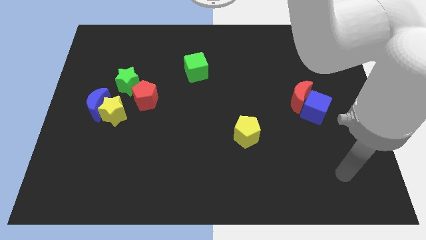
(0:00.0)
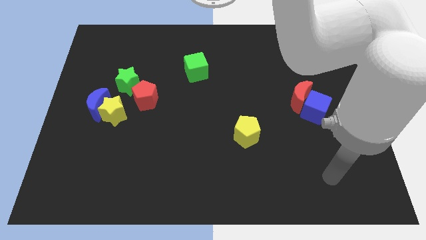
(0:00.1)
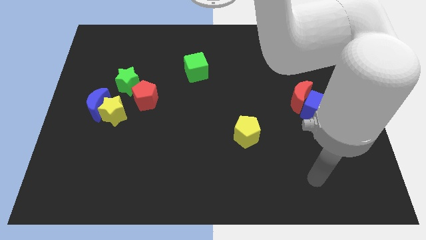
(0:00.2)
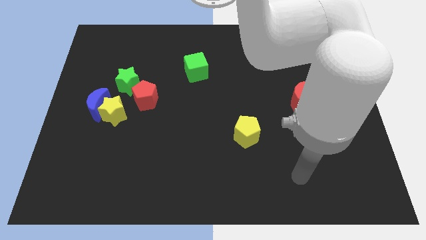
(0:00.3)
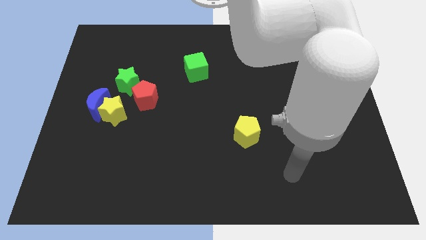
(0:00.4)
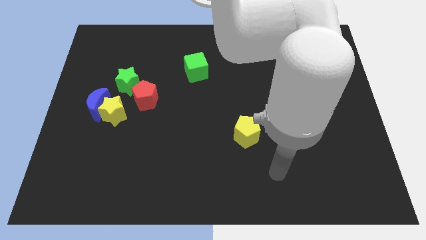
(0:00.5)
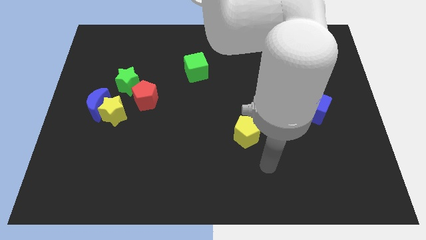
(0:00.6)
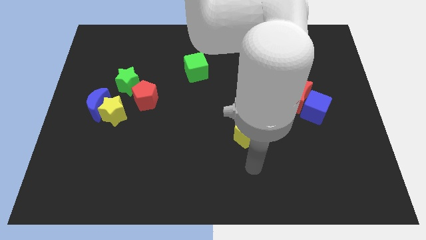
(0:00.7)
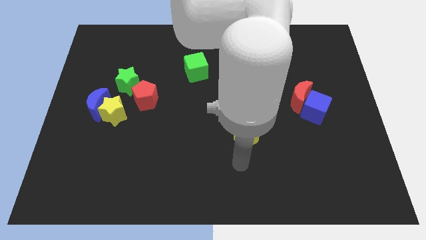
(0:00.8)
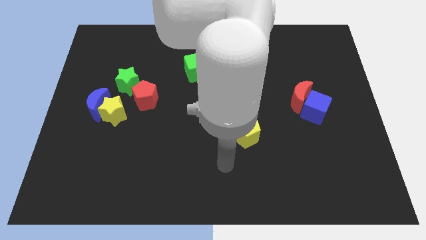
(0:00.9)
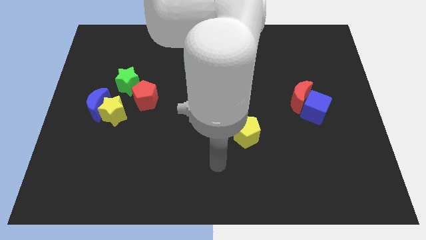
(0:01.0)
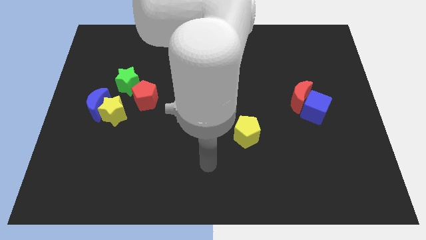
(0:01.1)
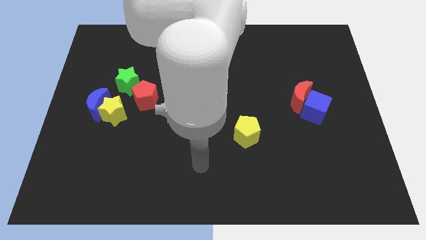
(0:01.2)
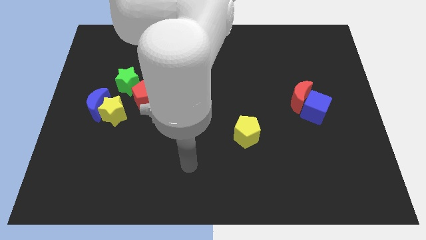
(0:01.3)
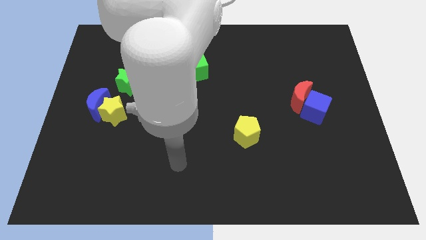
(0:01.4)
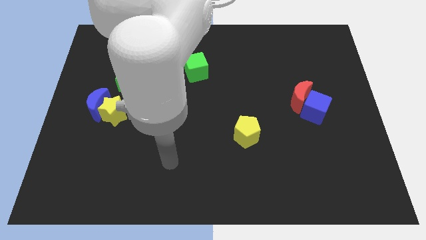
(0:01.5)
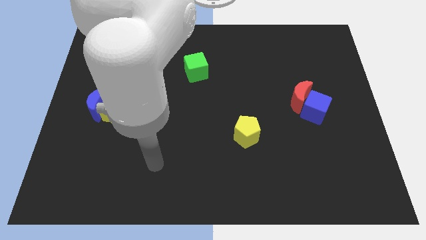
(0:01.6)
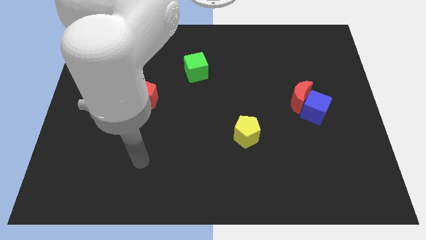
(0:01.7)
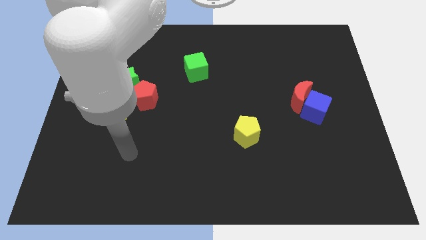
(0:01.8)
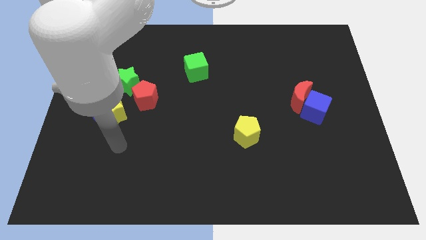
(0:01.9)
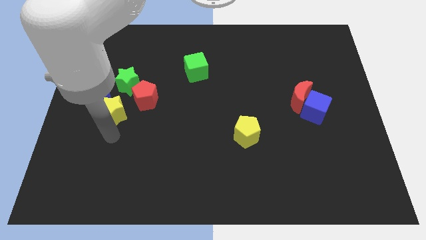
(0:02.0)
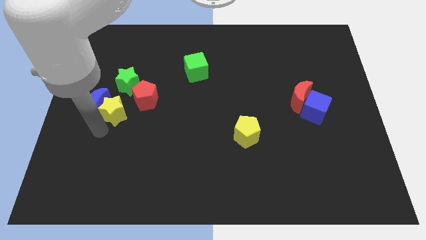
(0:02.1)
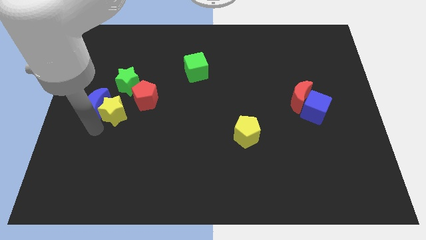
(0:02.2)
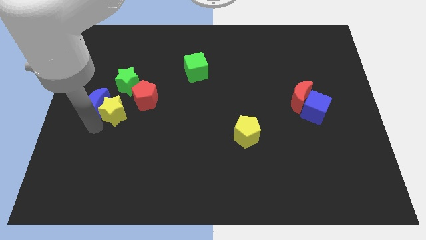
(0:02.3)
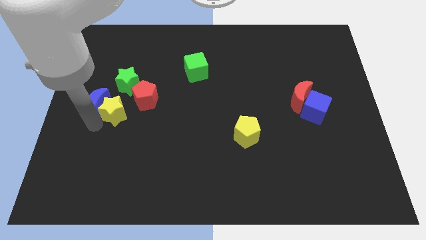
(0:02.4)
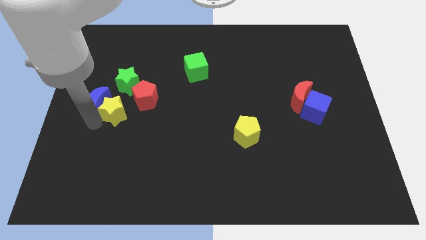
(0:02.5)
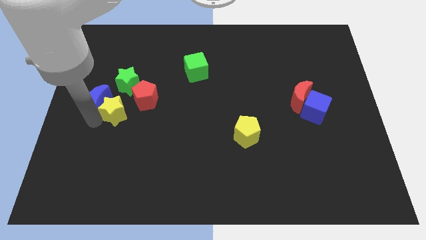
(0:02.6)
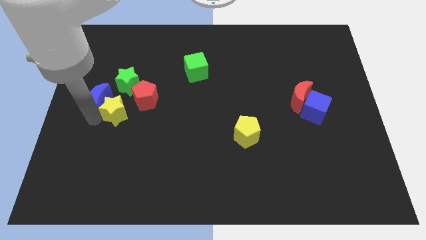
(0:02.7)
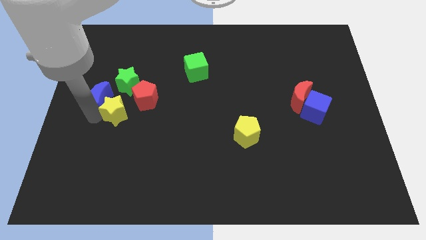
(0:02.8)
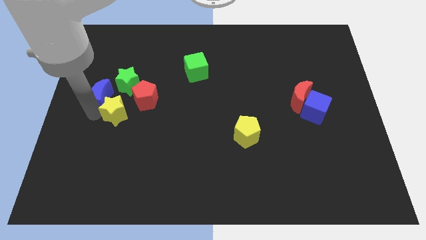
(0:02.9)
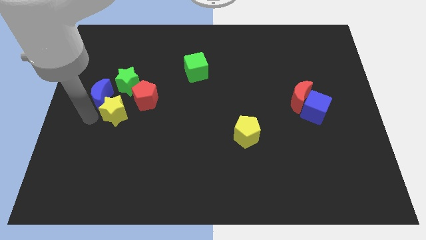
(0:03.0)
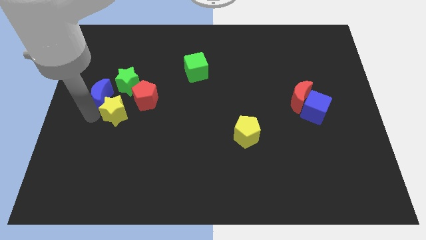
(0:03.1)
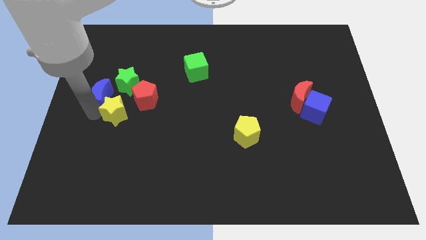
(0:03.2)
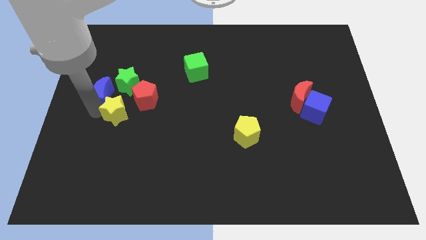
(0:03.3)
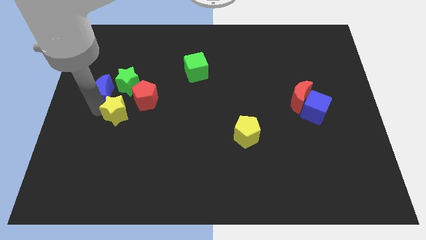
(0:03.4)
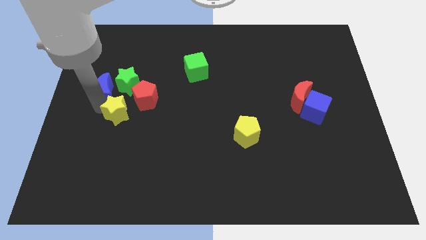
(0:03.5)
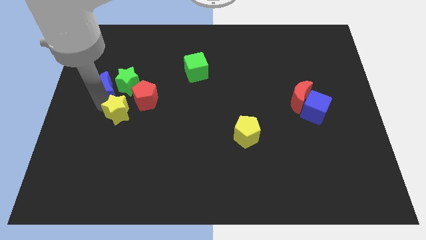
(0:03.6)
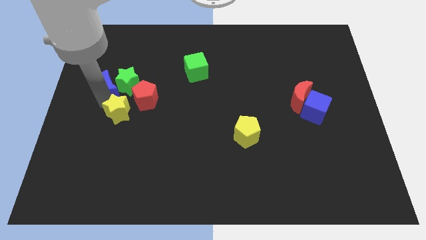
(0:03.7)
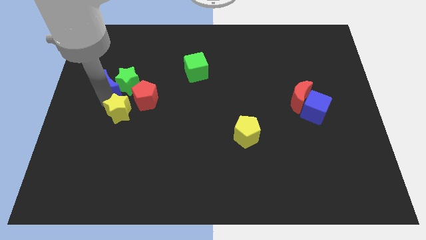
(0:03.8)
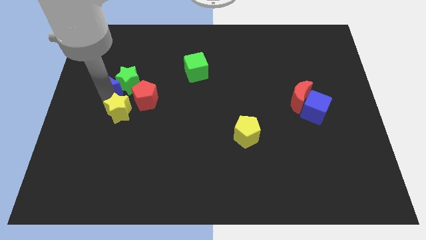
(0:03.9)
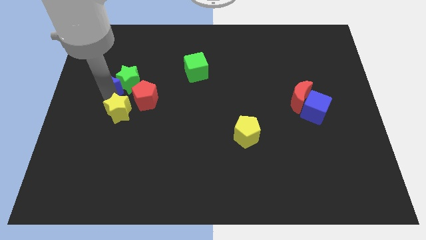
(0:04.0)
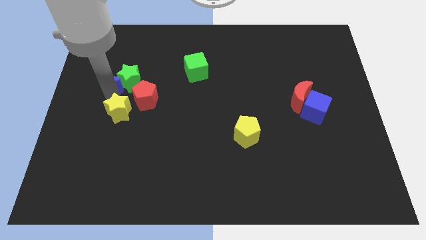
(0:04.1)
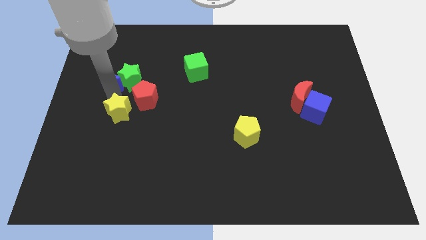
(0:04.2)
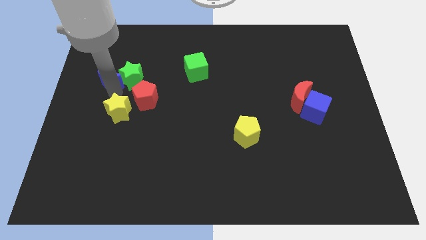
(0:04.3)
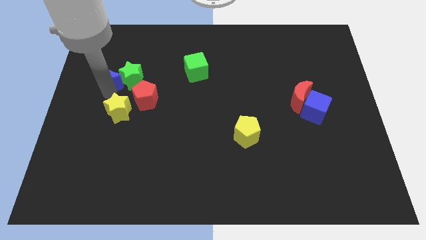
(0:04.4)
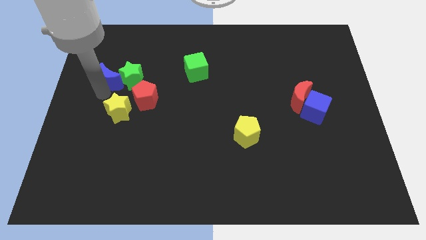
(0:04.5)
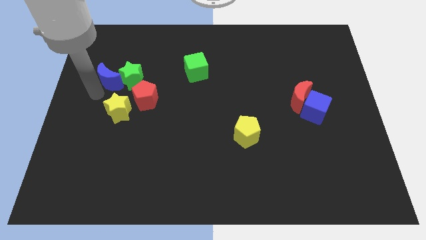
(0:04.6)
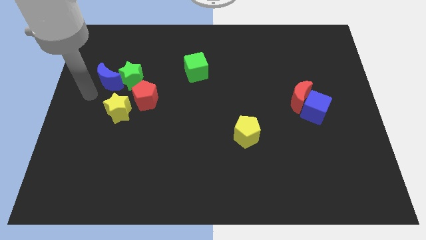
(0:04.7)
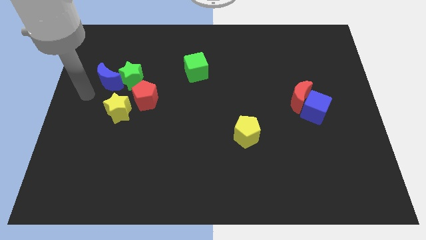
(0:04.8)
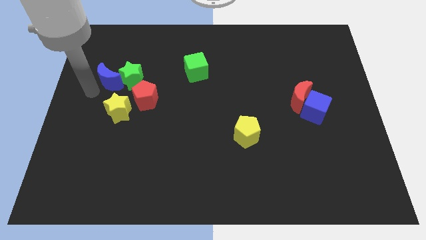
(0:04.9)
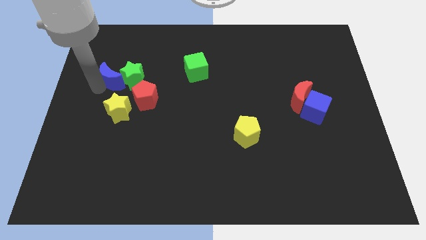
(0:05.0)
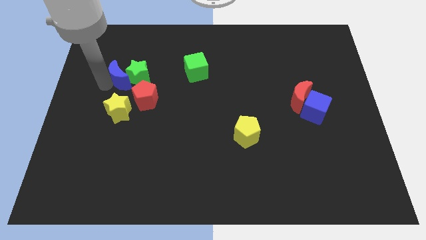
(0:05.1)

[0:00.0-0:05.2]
slide the blue moon up and right diagonally a little bit

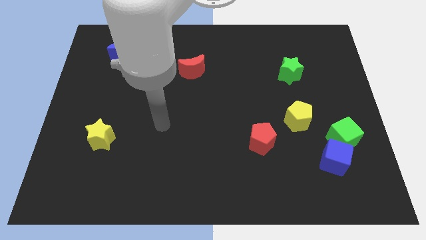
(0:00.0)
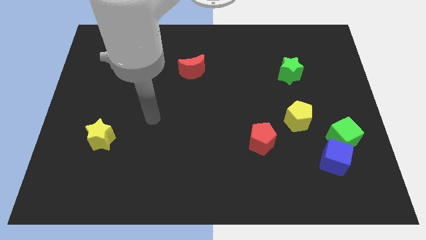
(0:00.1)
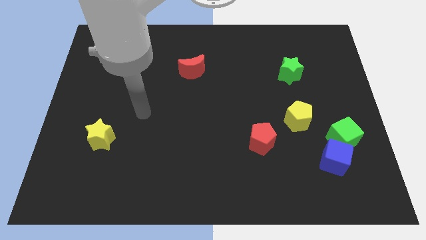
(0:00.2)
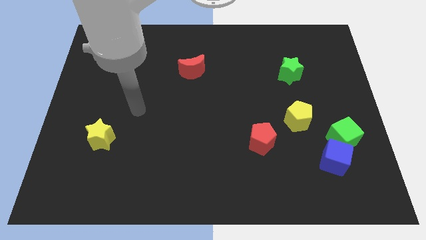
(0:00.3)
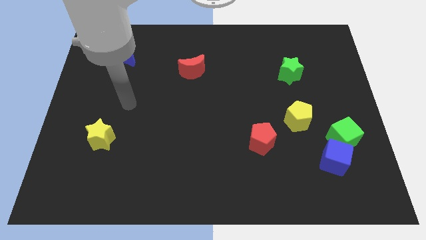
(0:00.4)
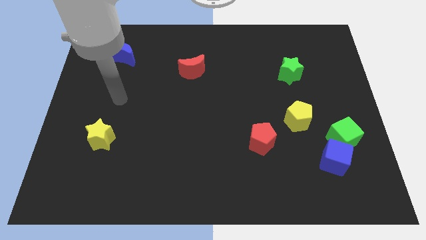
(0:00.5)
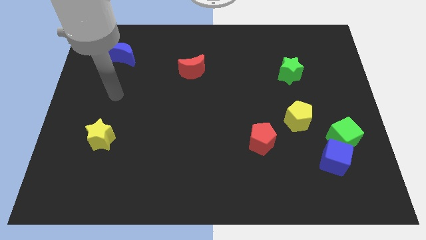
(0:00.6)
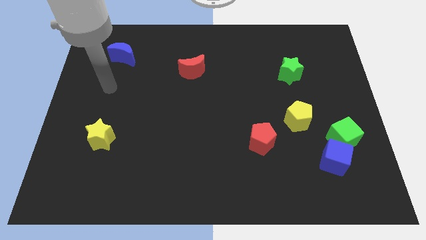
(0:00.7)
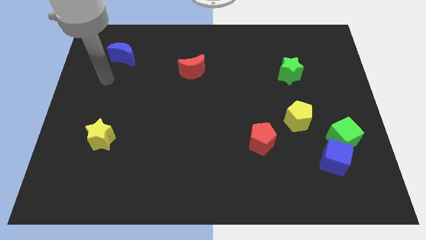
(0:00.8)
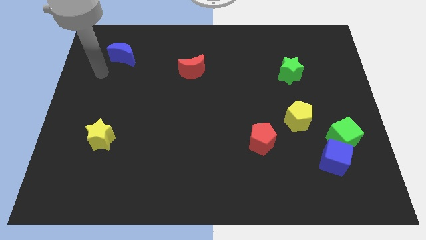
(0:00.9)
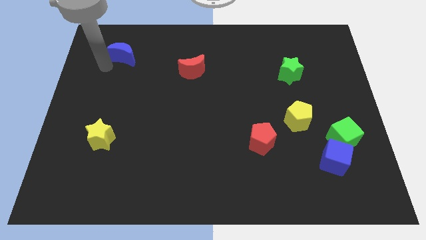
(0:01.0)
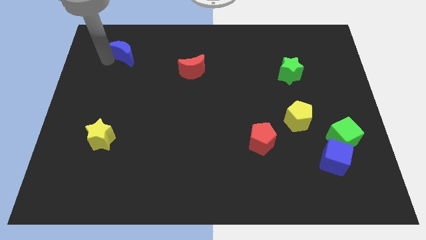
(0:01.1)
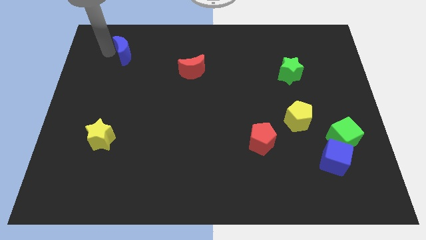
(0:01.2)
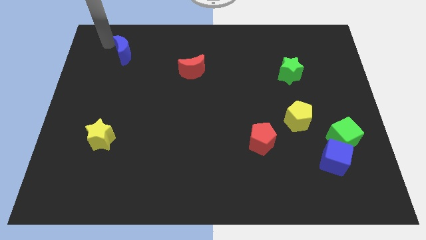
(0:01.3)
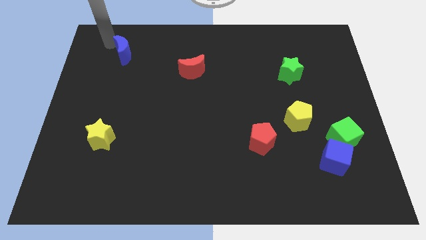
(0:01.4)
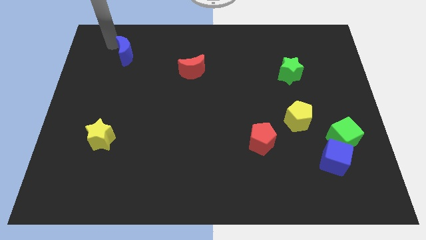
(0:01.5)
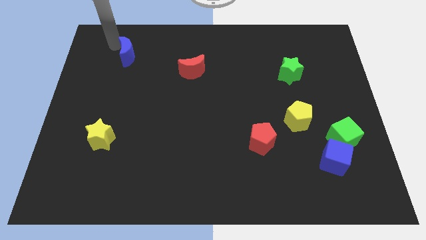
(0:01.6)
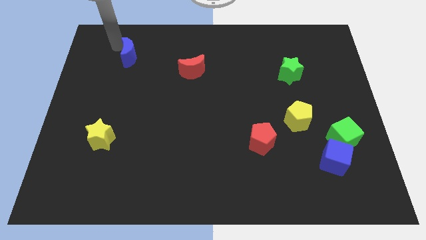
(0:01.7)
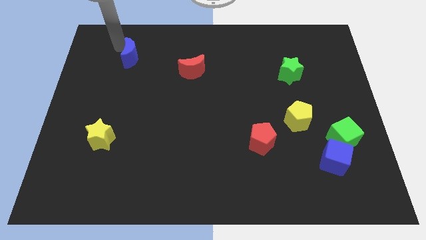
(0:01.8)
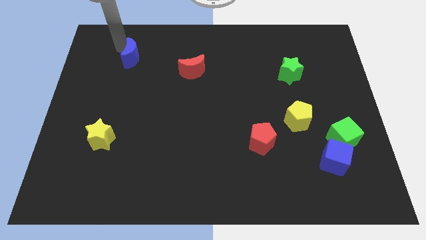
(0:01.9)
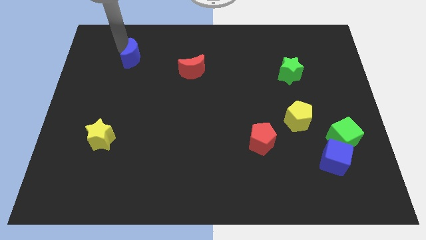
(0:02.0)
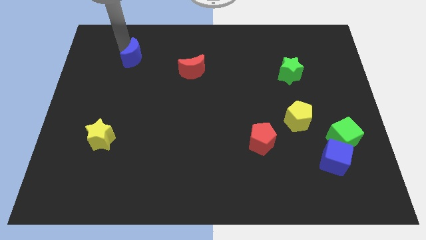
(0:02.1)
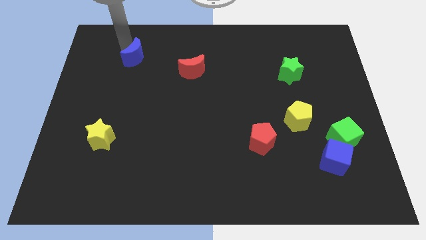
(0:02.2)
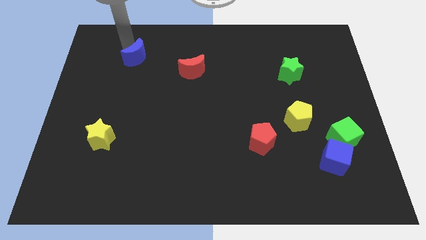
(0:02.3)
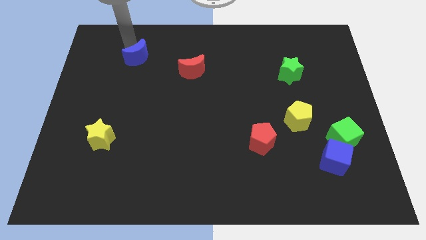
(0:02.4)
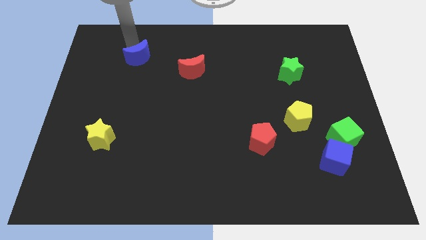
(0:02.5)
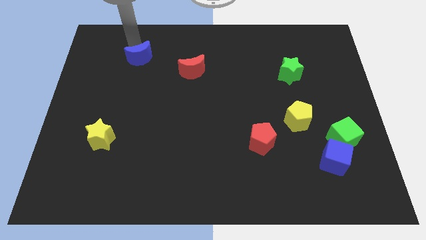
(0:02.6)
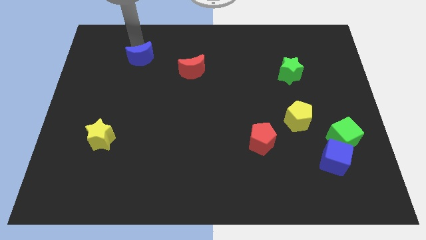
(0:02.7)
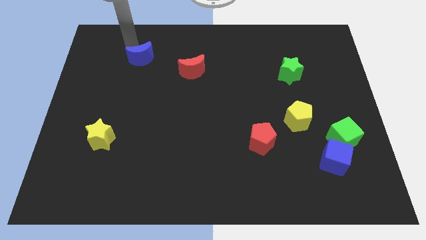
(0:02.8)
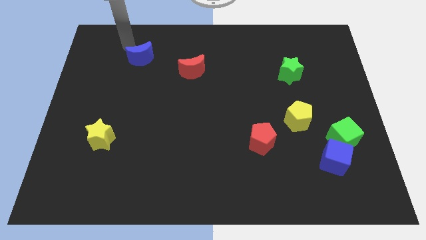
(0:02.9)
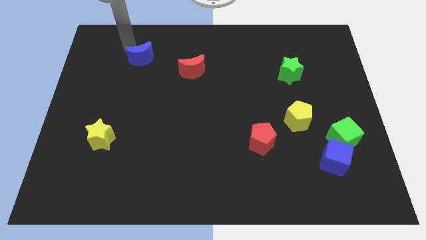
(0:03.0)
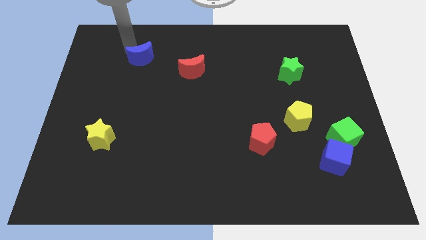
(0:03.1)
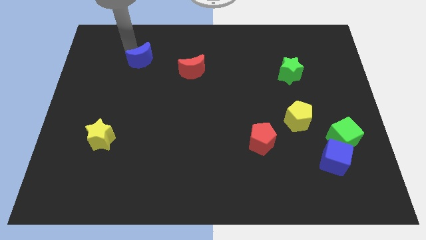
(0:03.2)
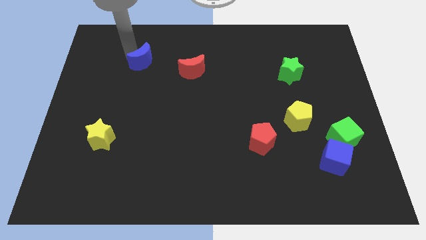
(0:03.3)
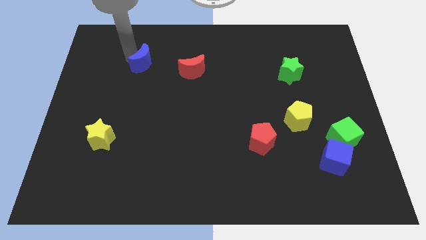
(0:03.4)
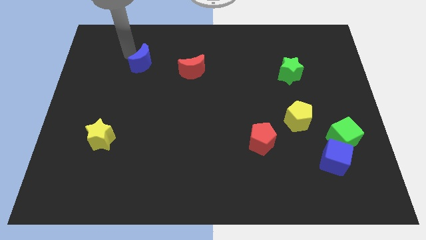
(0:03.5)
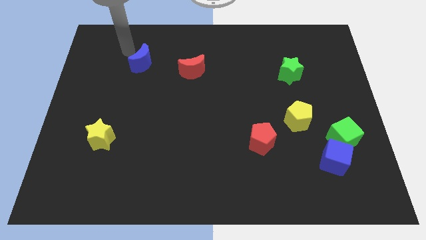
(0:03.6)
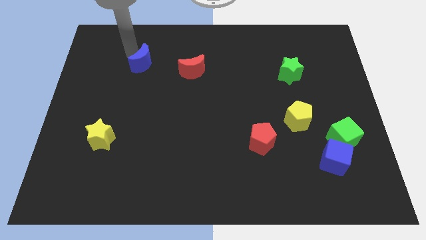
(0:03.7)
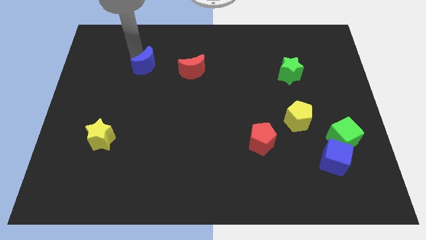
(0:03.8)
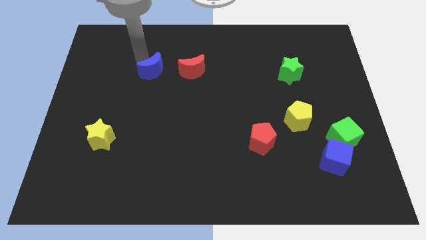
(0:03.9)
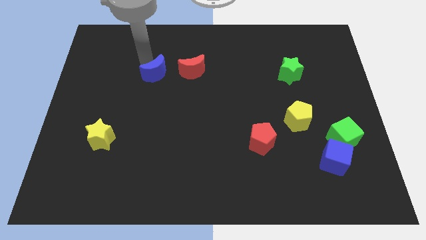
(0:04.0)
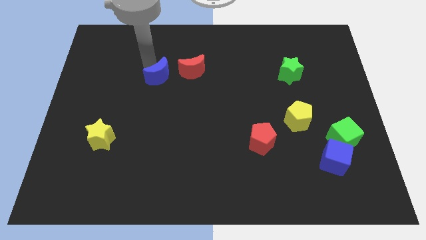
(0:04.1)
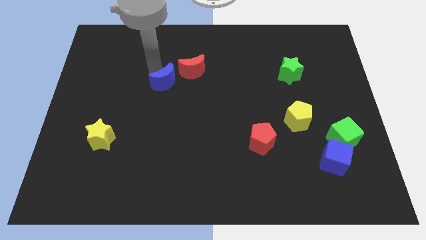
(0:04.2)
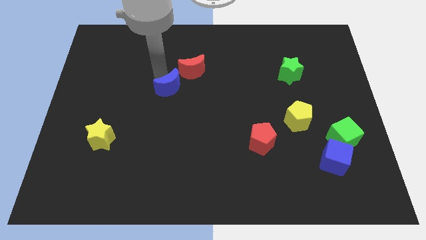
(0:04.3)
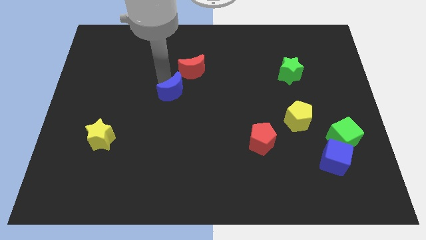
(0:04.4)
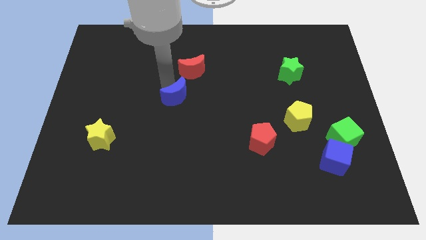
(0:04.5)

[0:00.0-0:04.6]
slide the blue moon downwards and to the right
